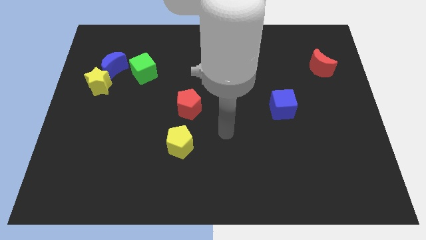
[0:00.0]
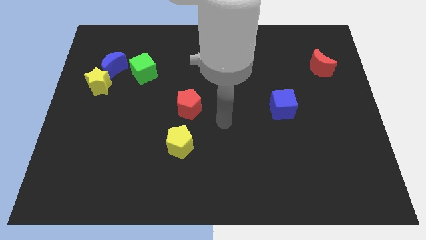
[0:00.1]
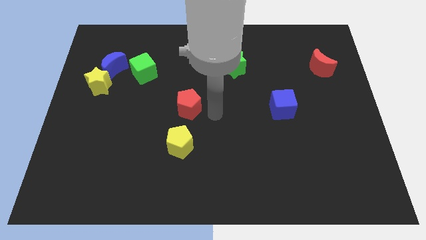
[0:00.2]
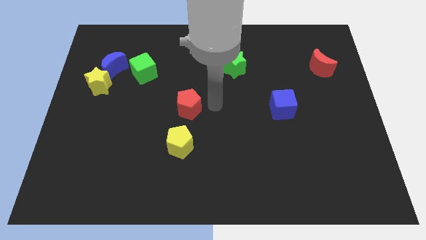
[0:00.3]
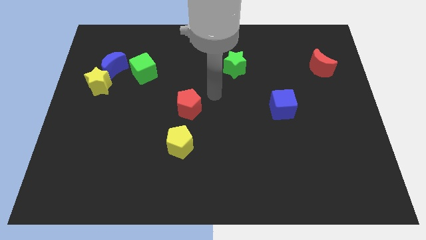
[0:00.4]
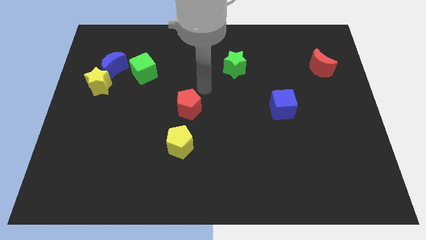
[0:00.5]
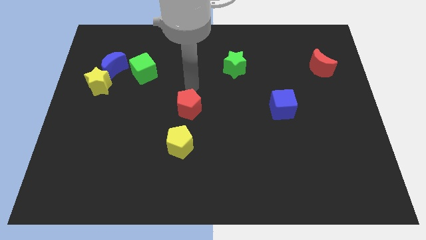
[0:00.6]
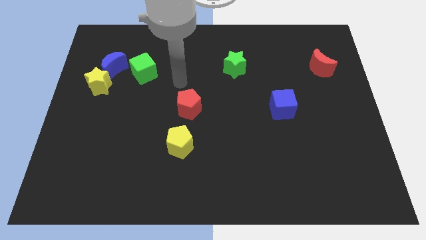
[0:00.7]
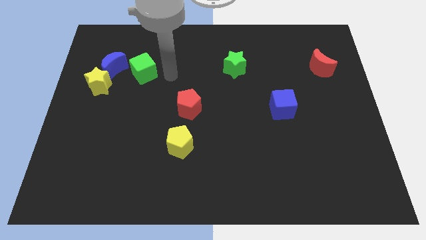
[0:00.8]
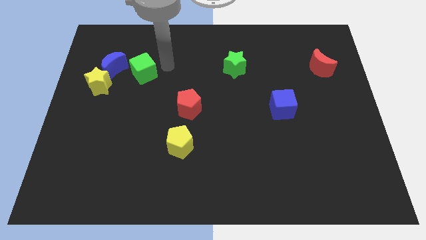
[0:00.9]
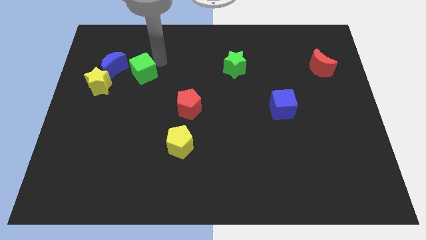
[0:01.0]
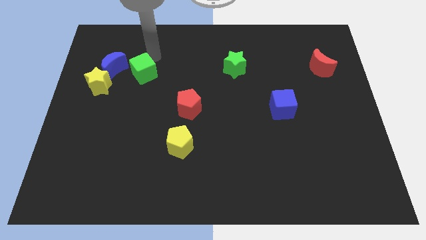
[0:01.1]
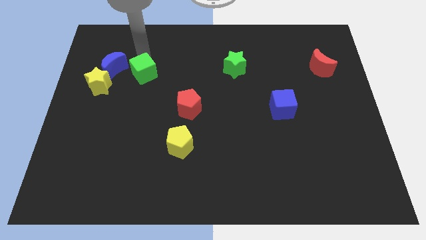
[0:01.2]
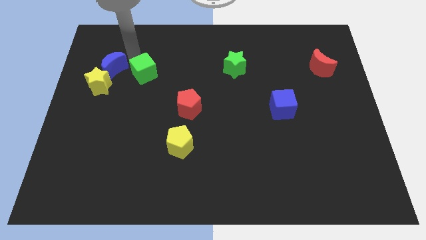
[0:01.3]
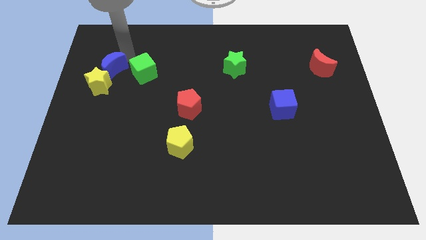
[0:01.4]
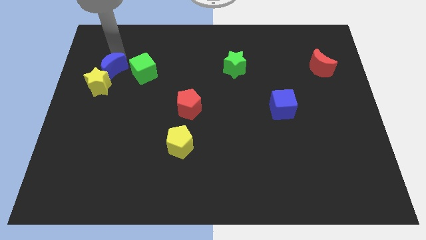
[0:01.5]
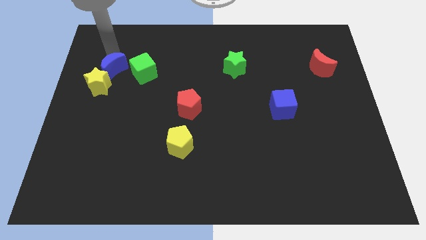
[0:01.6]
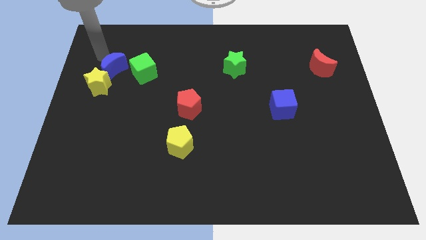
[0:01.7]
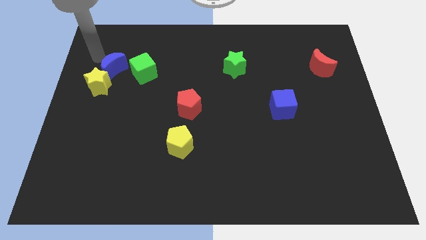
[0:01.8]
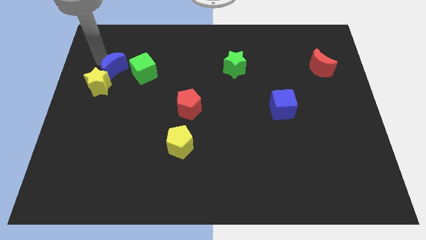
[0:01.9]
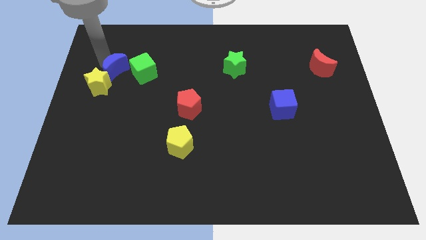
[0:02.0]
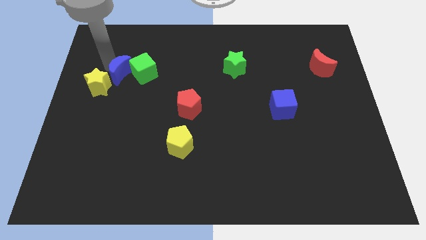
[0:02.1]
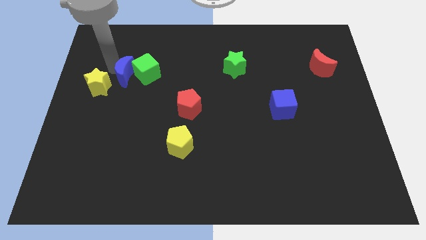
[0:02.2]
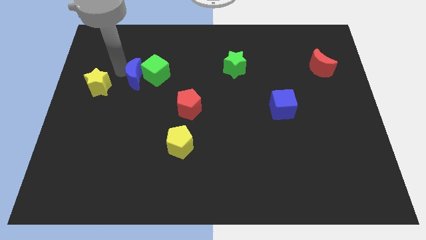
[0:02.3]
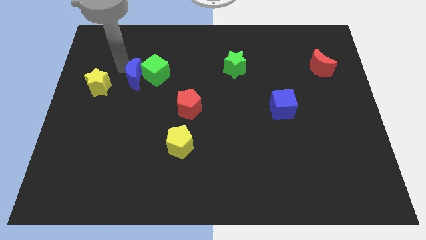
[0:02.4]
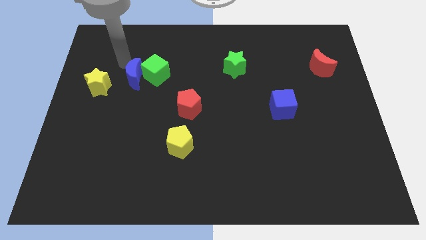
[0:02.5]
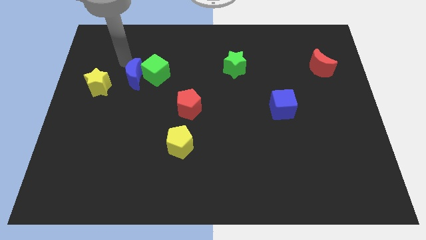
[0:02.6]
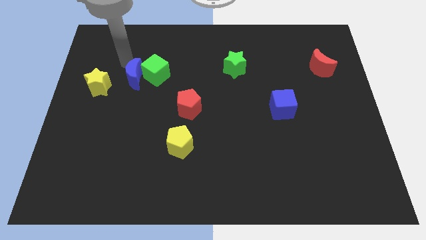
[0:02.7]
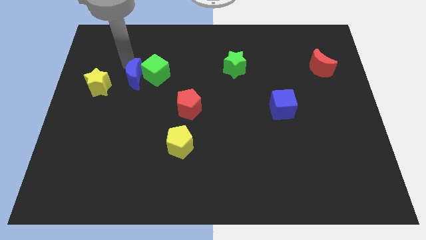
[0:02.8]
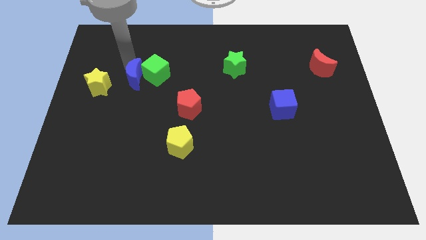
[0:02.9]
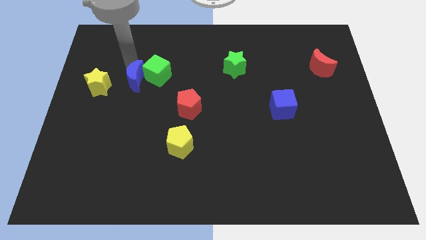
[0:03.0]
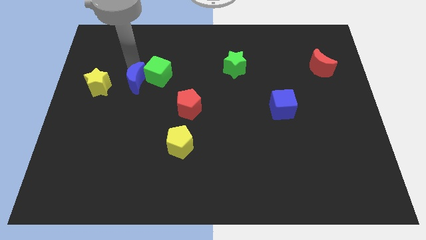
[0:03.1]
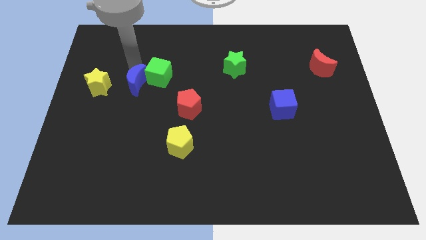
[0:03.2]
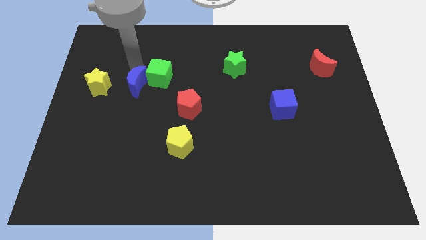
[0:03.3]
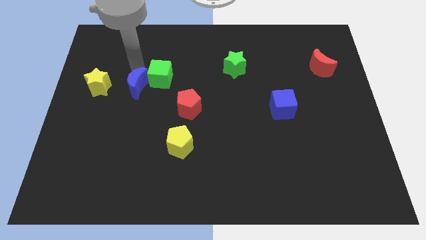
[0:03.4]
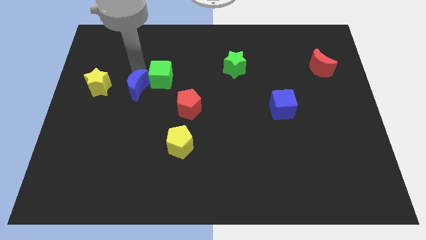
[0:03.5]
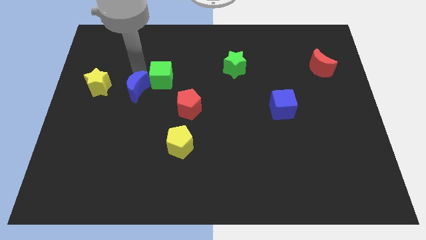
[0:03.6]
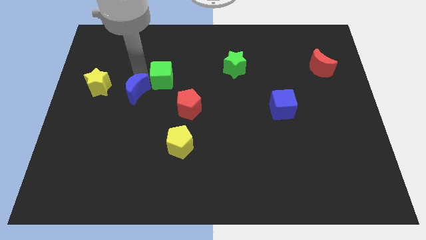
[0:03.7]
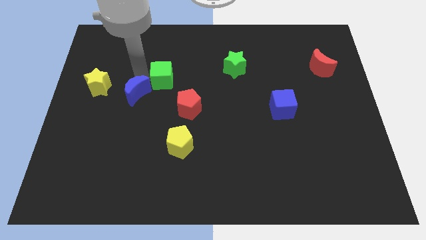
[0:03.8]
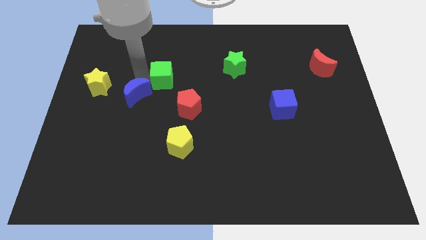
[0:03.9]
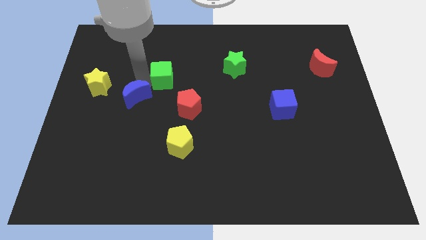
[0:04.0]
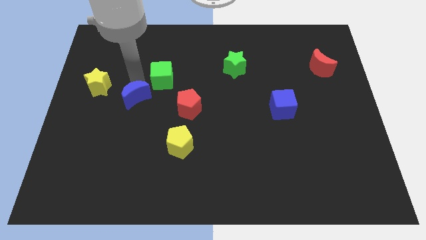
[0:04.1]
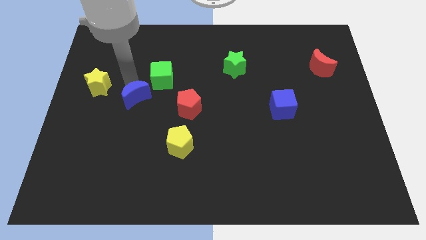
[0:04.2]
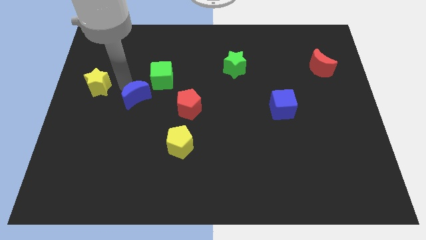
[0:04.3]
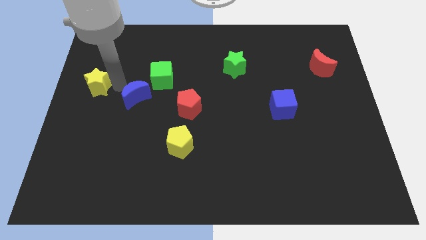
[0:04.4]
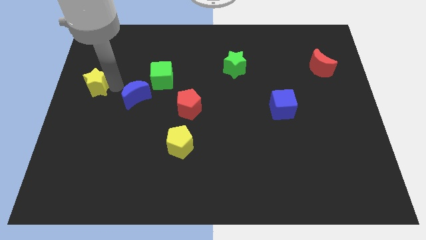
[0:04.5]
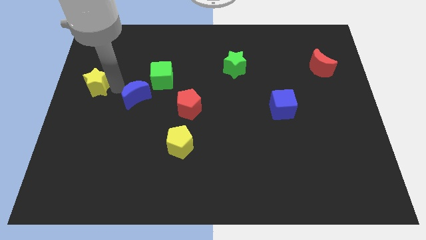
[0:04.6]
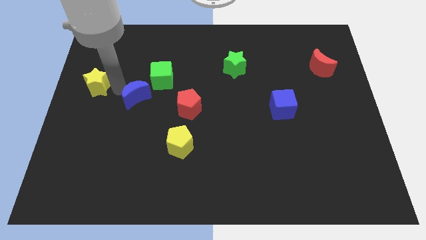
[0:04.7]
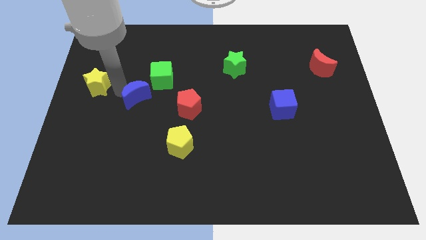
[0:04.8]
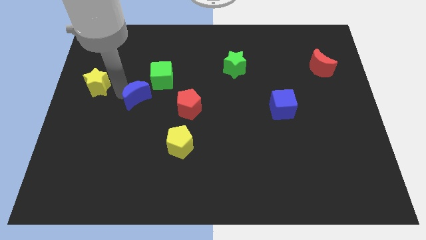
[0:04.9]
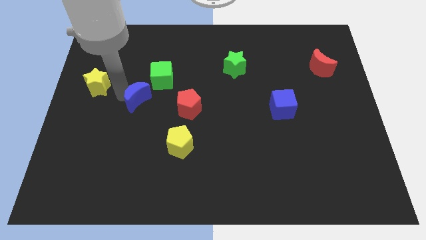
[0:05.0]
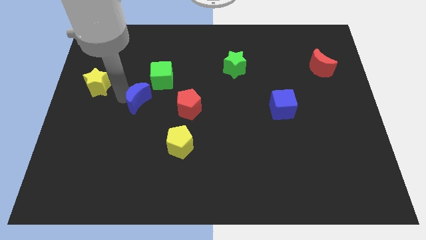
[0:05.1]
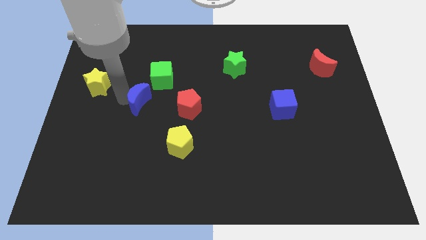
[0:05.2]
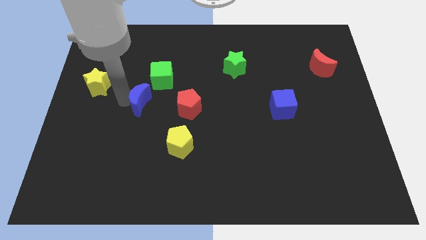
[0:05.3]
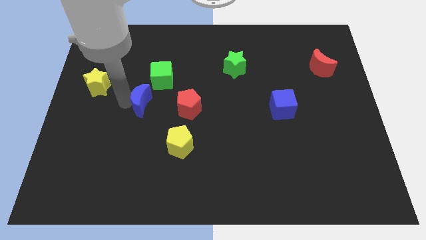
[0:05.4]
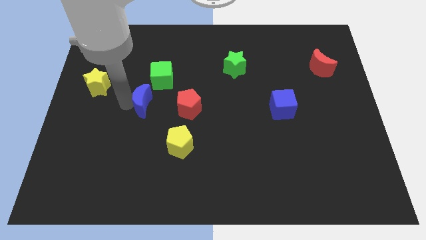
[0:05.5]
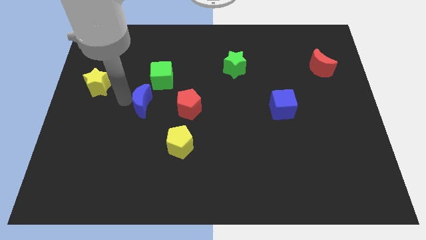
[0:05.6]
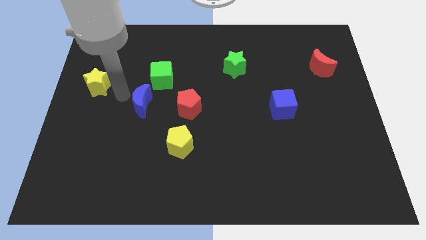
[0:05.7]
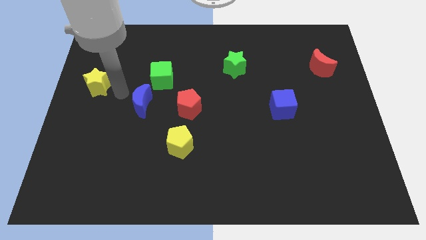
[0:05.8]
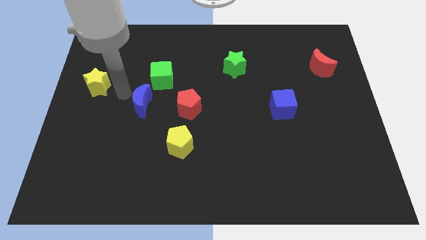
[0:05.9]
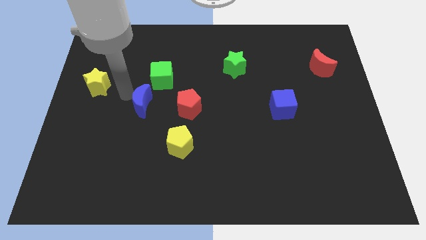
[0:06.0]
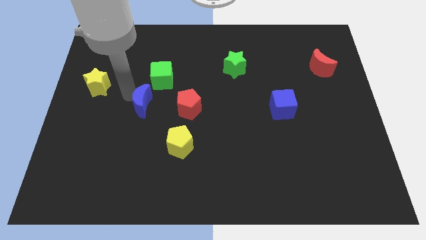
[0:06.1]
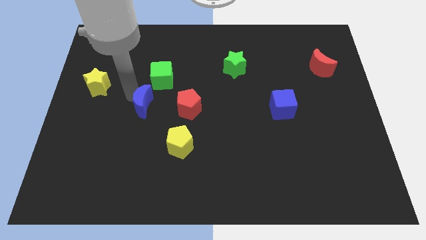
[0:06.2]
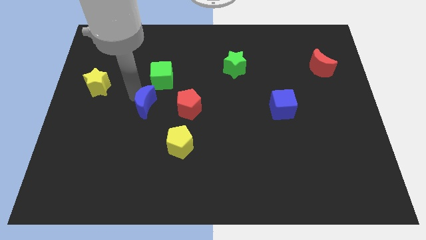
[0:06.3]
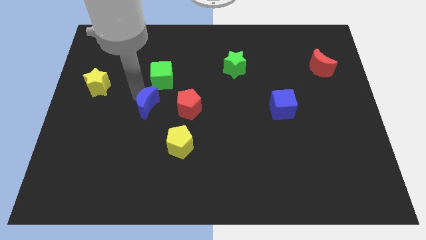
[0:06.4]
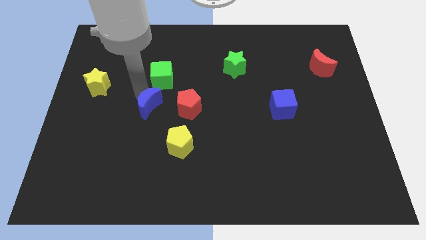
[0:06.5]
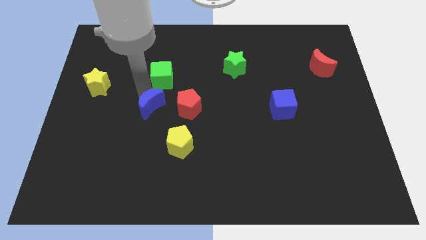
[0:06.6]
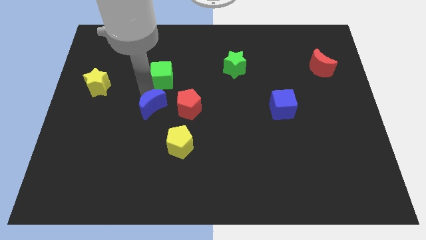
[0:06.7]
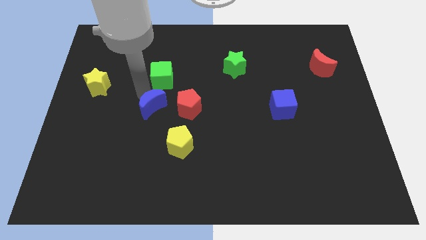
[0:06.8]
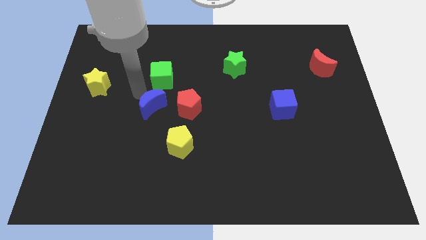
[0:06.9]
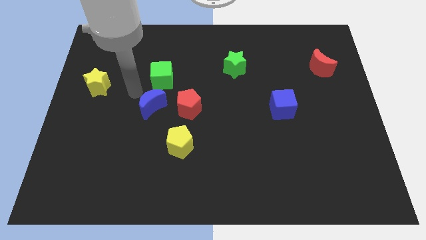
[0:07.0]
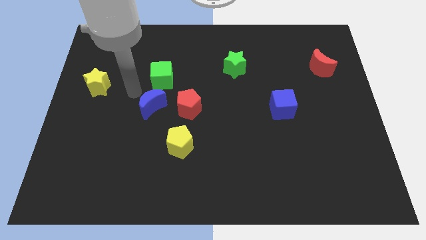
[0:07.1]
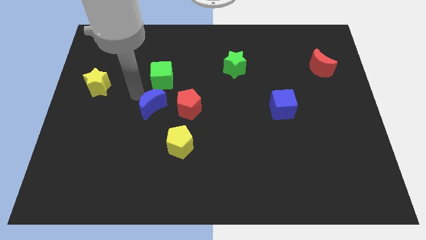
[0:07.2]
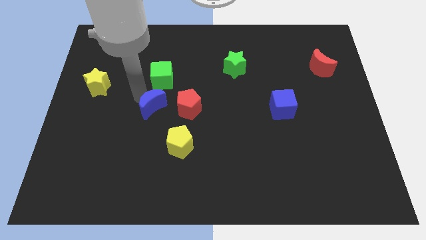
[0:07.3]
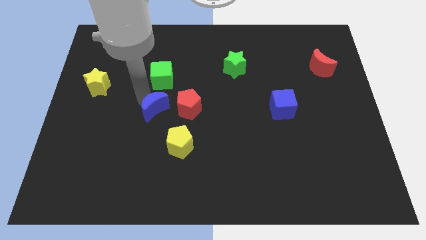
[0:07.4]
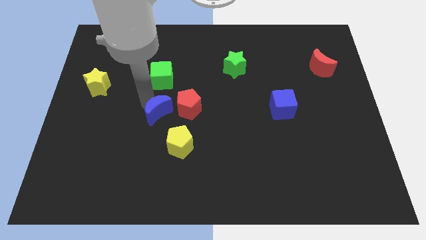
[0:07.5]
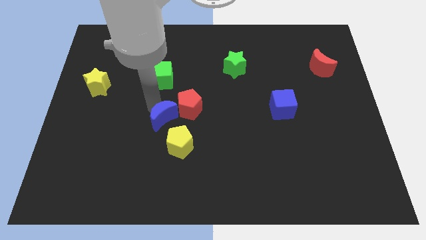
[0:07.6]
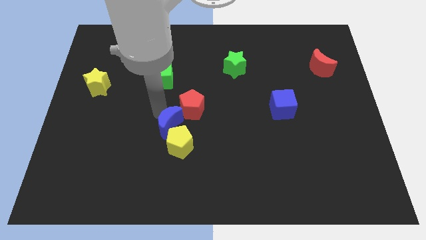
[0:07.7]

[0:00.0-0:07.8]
move the blue moon towards the yellow pentagon

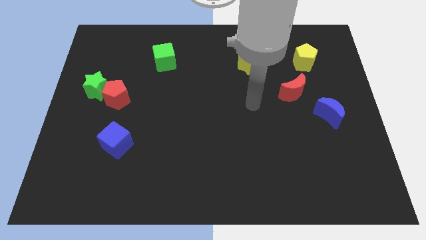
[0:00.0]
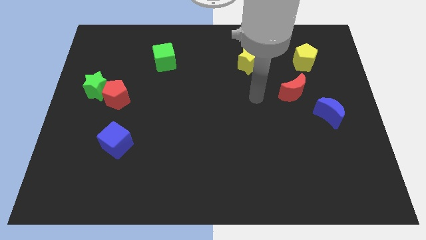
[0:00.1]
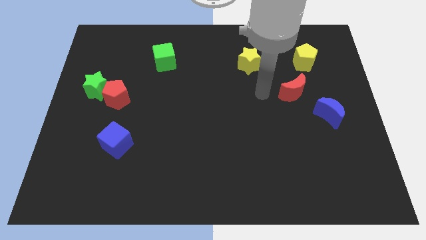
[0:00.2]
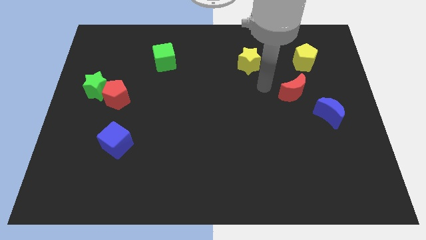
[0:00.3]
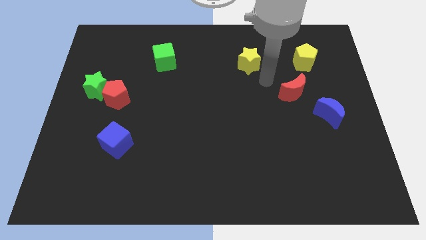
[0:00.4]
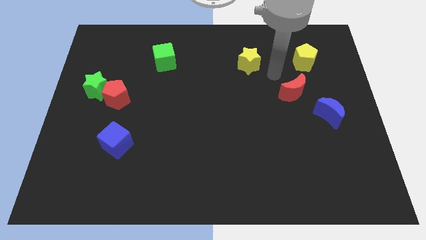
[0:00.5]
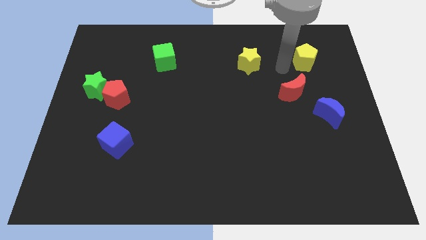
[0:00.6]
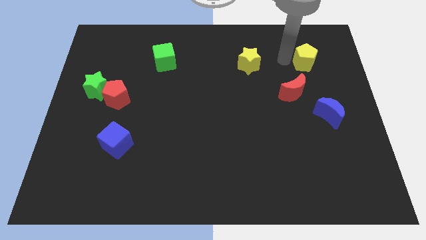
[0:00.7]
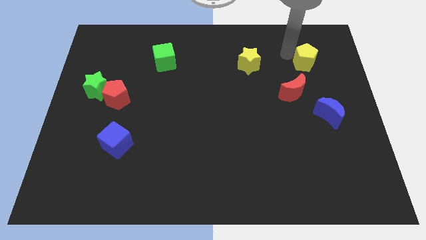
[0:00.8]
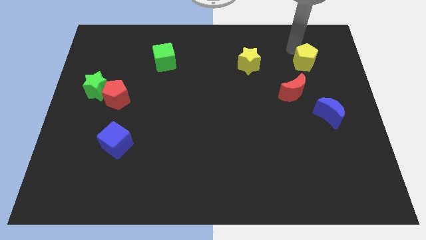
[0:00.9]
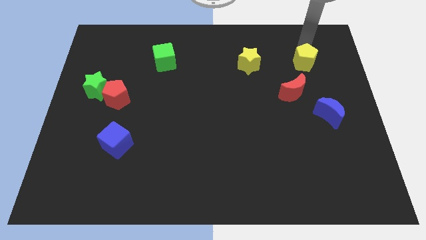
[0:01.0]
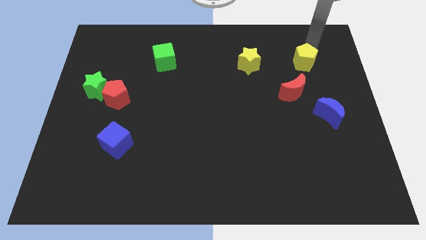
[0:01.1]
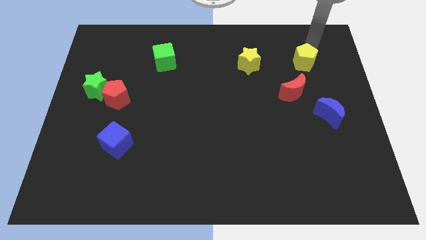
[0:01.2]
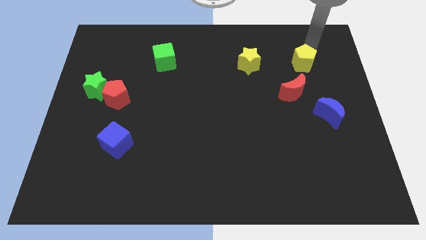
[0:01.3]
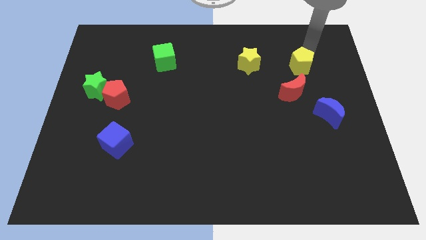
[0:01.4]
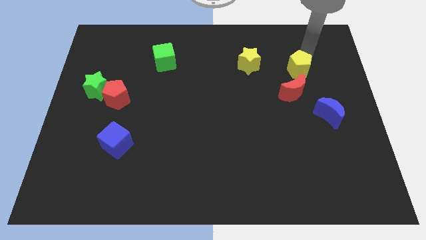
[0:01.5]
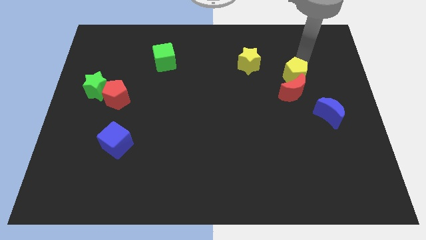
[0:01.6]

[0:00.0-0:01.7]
push the yellow pentagon close to the red moon
